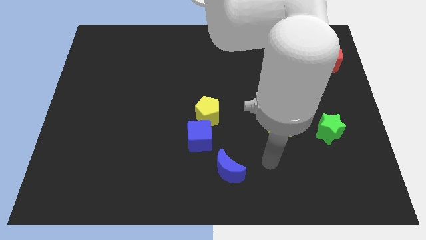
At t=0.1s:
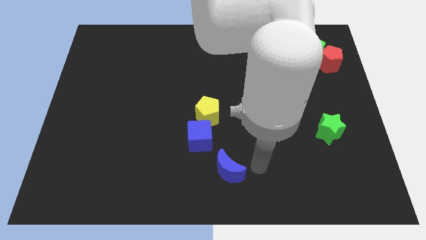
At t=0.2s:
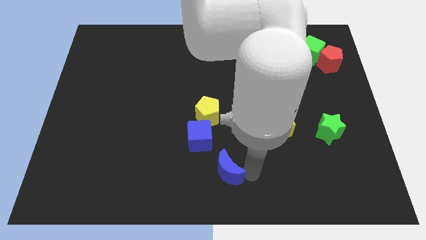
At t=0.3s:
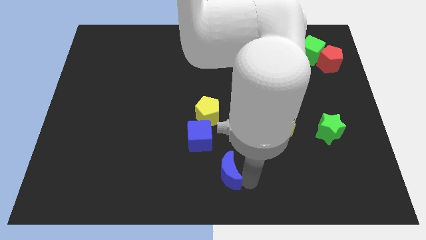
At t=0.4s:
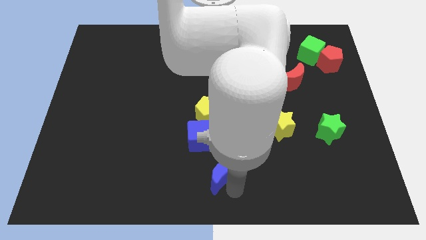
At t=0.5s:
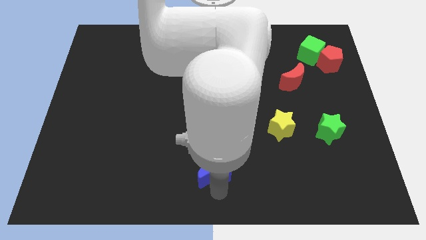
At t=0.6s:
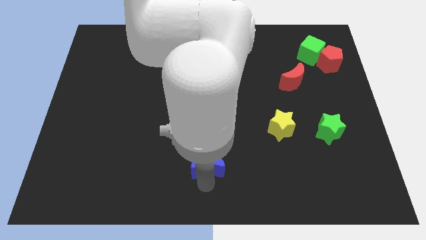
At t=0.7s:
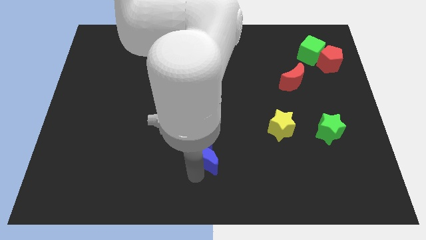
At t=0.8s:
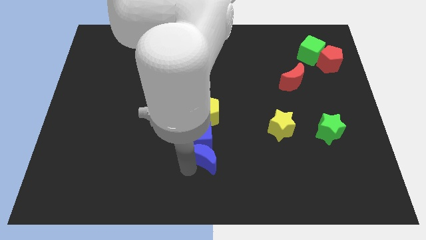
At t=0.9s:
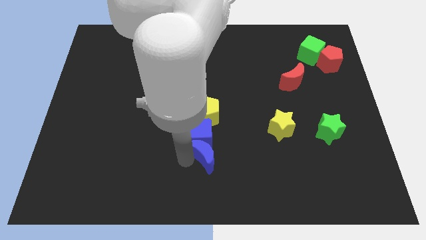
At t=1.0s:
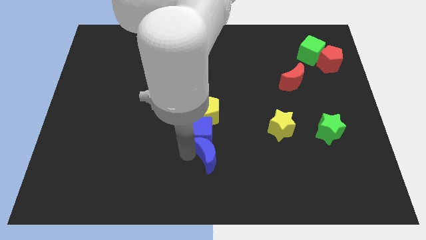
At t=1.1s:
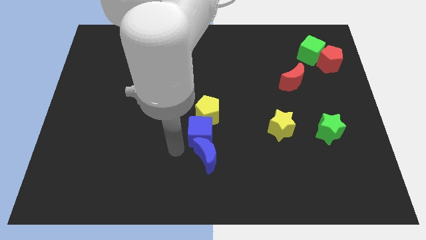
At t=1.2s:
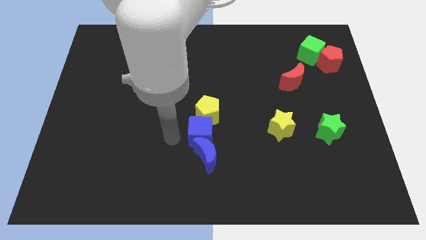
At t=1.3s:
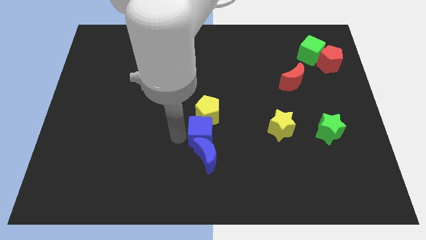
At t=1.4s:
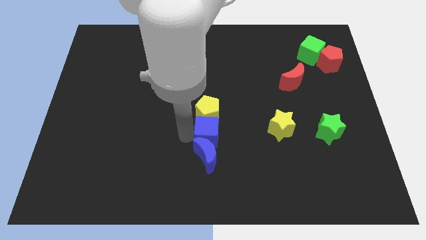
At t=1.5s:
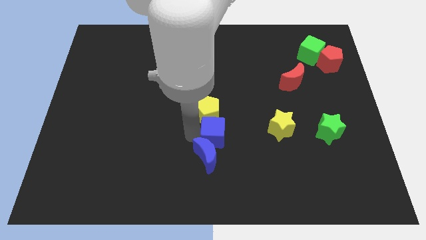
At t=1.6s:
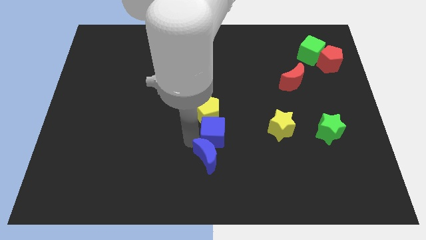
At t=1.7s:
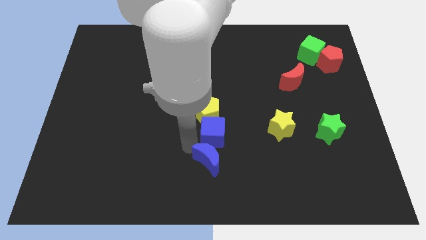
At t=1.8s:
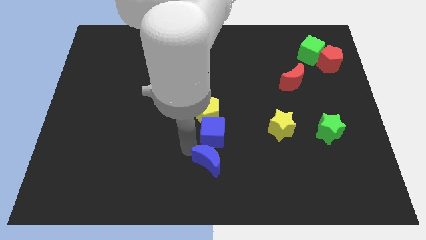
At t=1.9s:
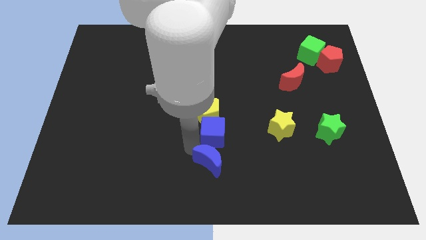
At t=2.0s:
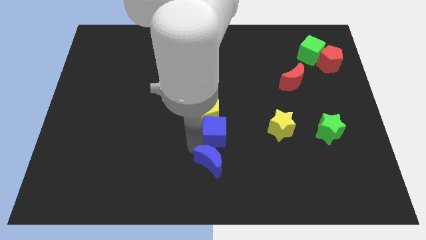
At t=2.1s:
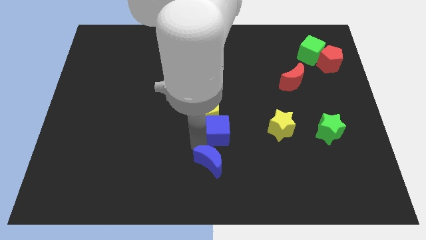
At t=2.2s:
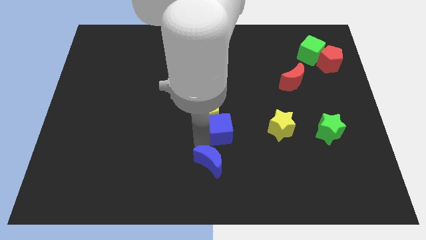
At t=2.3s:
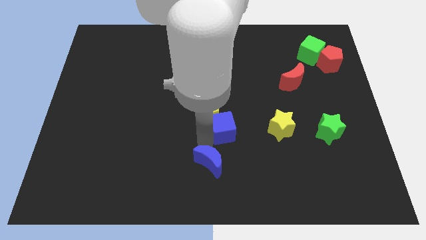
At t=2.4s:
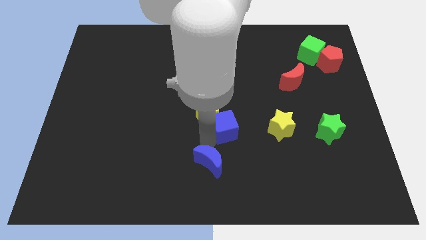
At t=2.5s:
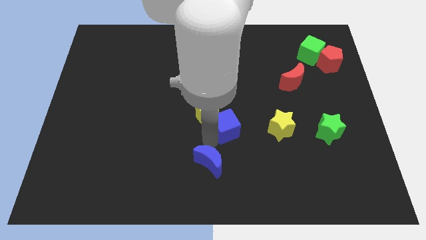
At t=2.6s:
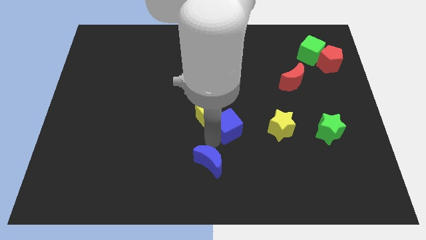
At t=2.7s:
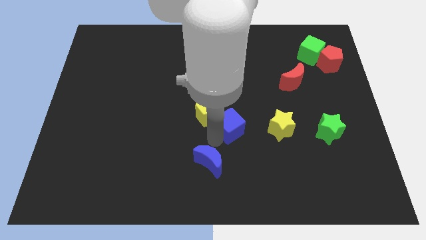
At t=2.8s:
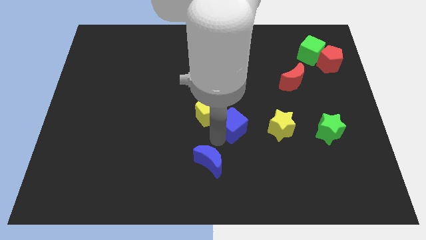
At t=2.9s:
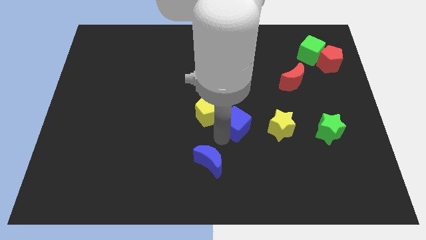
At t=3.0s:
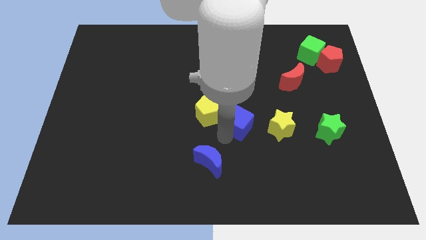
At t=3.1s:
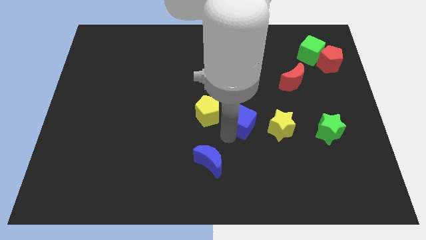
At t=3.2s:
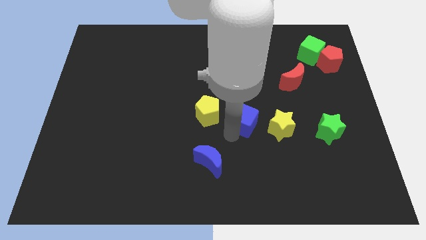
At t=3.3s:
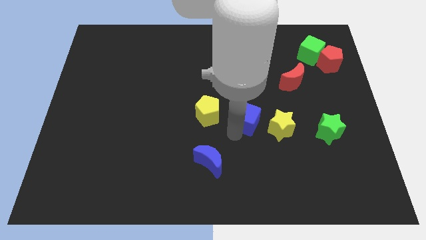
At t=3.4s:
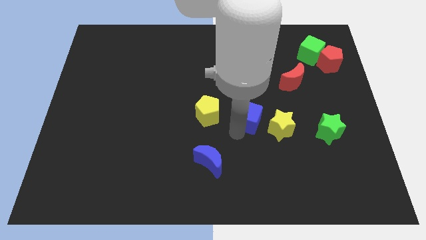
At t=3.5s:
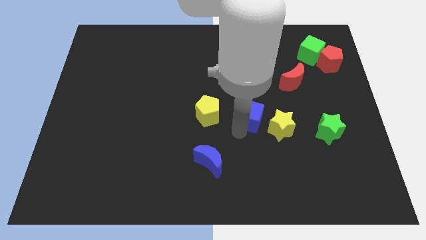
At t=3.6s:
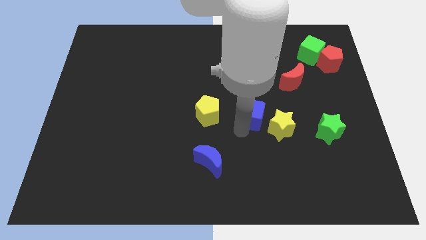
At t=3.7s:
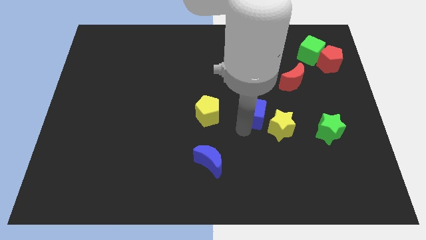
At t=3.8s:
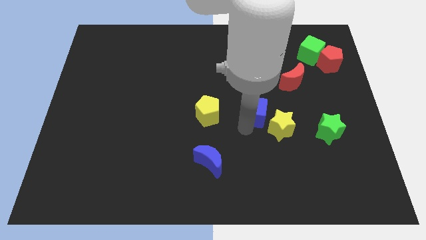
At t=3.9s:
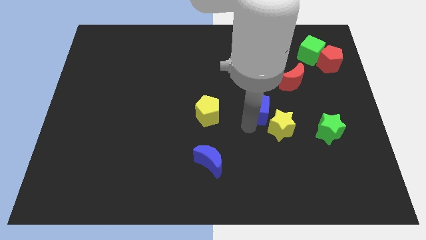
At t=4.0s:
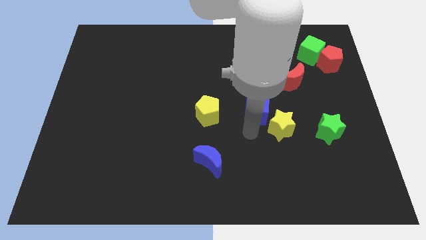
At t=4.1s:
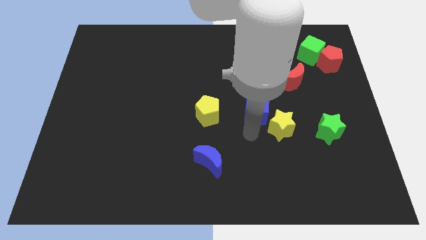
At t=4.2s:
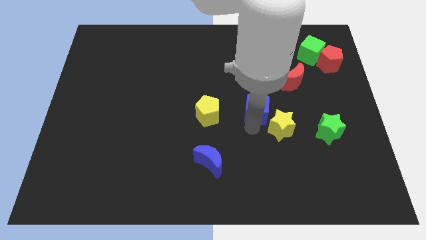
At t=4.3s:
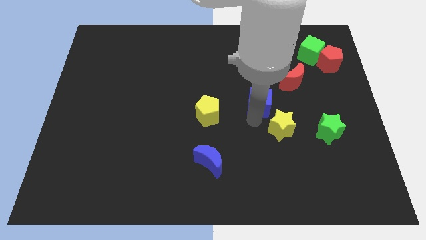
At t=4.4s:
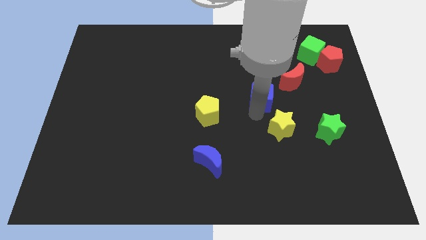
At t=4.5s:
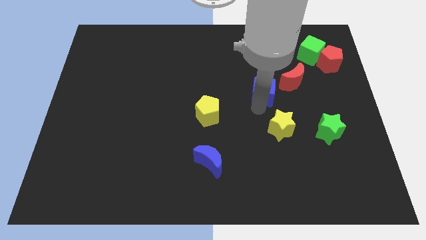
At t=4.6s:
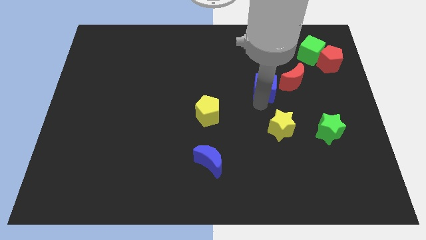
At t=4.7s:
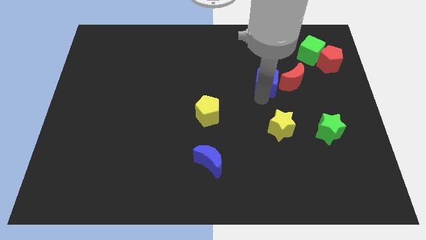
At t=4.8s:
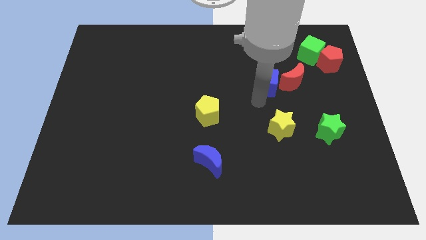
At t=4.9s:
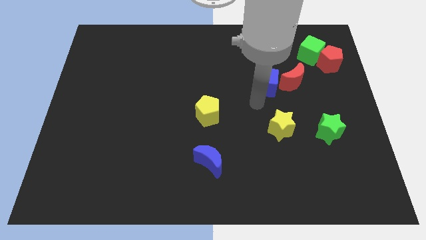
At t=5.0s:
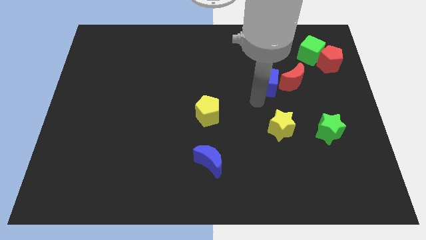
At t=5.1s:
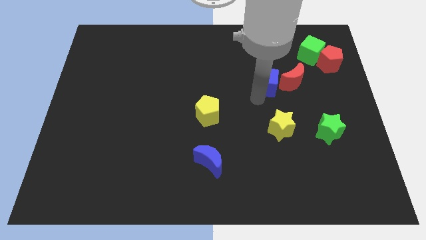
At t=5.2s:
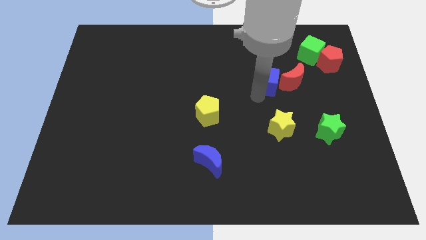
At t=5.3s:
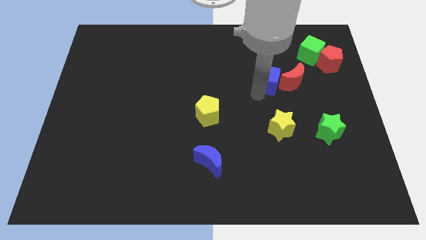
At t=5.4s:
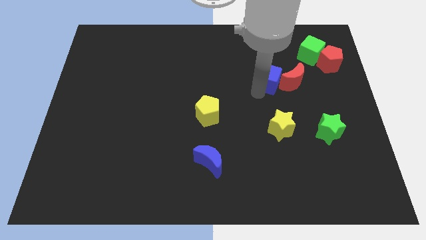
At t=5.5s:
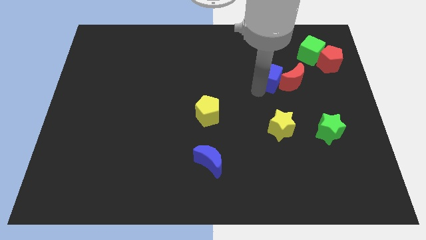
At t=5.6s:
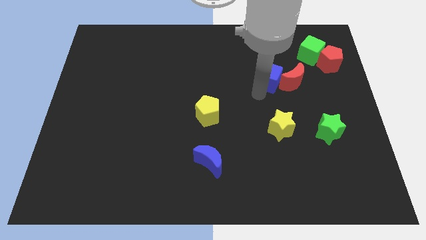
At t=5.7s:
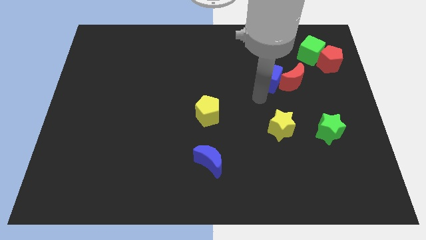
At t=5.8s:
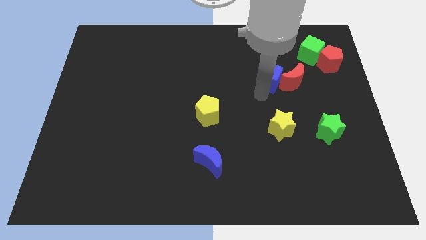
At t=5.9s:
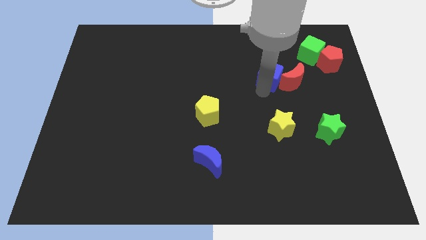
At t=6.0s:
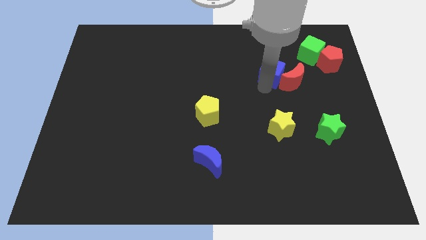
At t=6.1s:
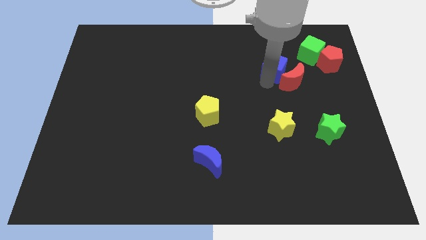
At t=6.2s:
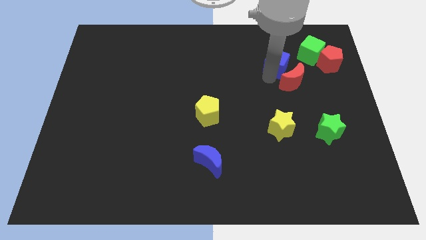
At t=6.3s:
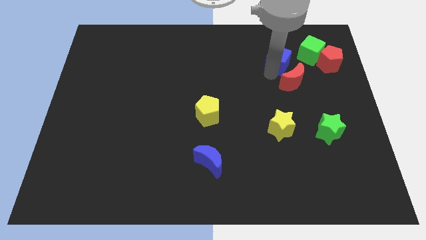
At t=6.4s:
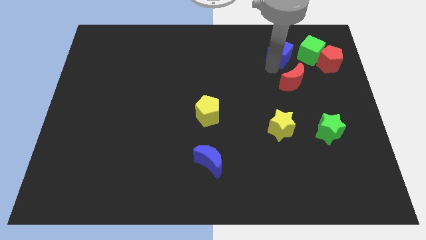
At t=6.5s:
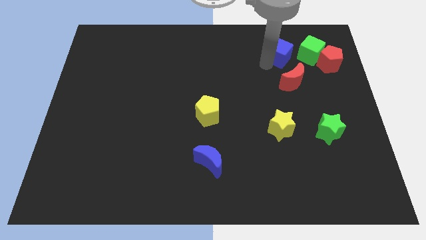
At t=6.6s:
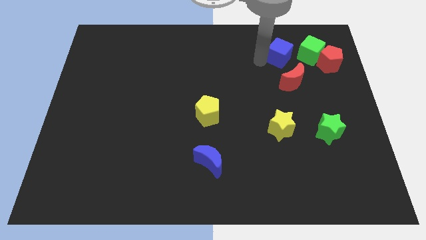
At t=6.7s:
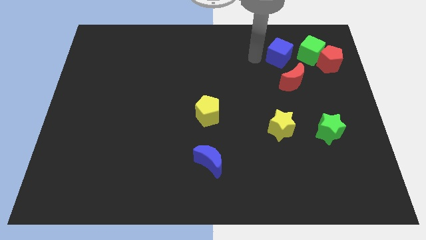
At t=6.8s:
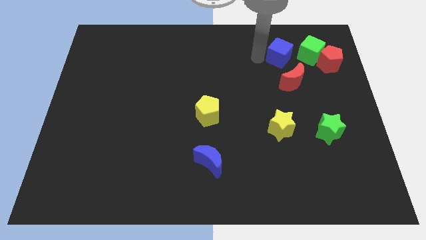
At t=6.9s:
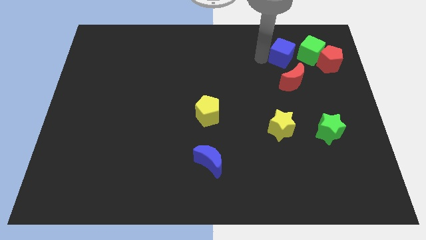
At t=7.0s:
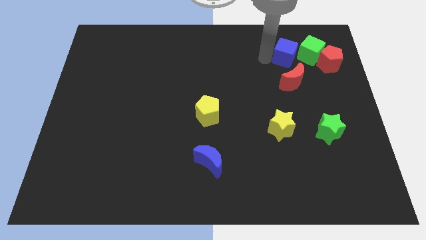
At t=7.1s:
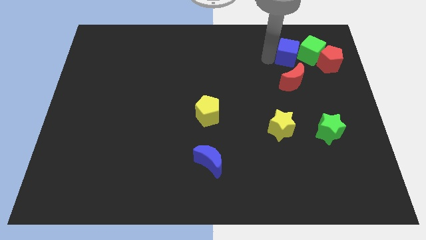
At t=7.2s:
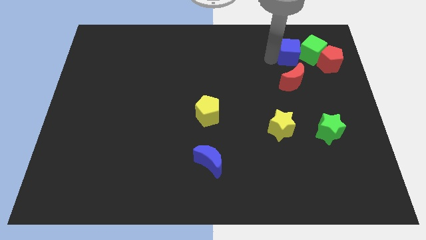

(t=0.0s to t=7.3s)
push the blue cube to the green cube
